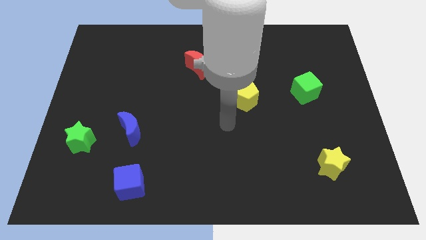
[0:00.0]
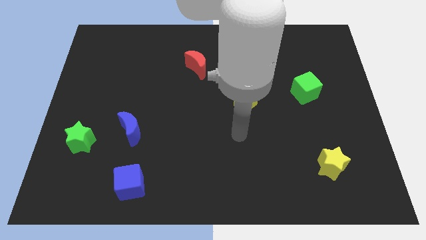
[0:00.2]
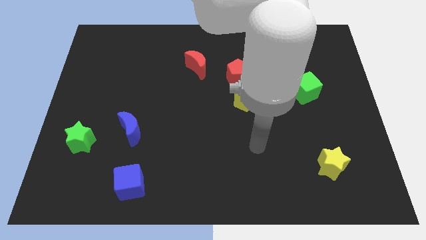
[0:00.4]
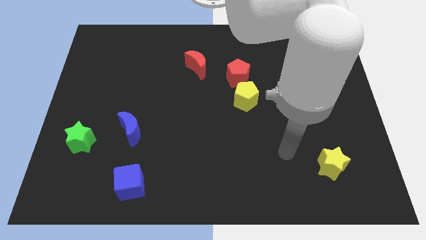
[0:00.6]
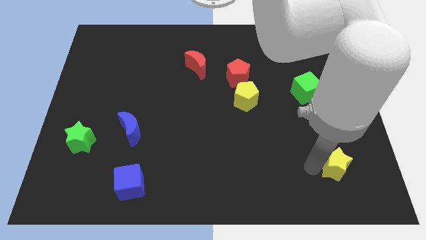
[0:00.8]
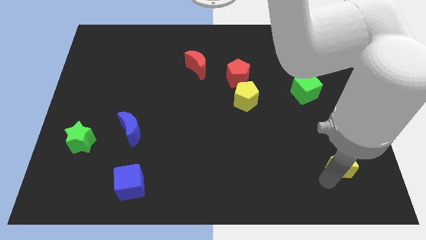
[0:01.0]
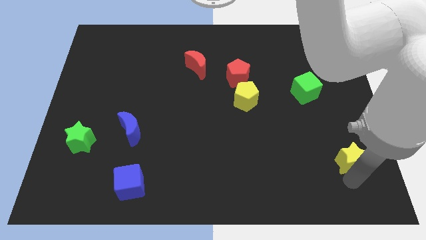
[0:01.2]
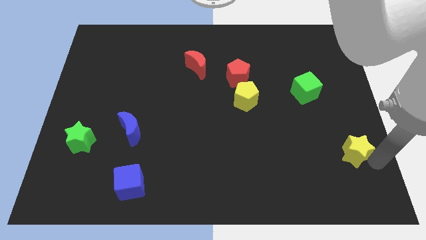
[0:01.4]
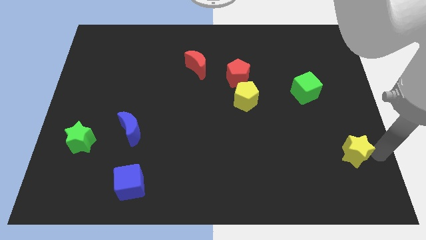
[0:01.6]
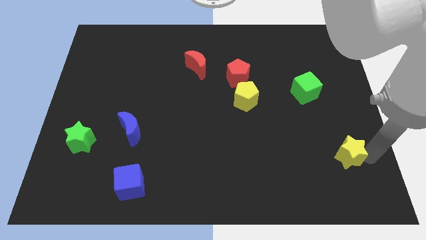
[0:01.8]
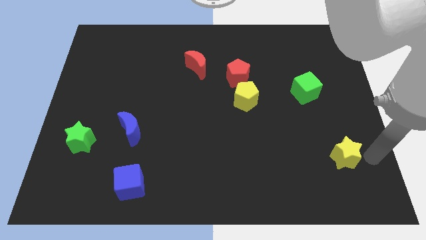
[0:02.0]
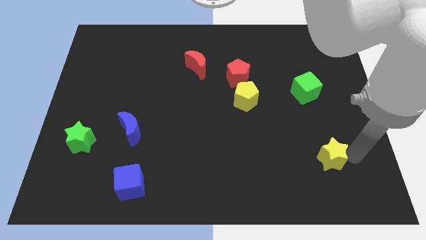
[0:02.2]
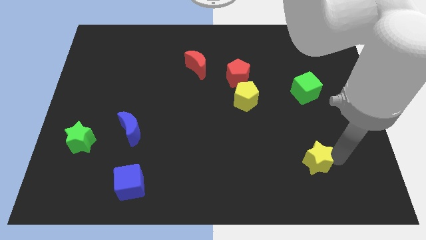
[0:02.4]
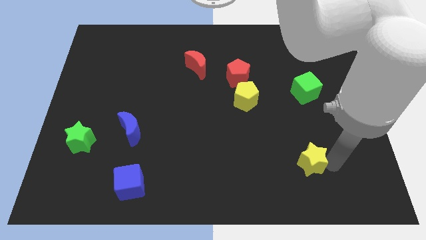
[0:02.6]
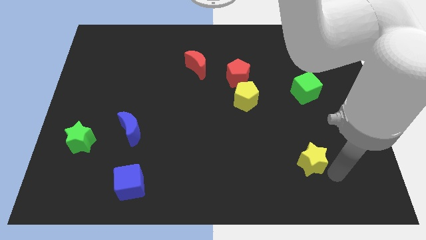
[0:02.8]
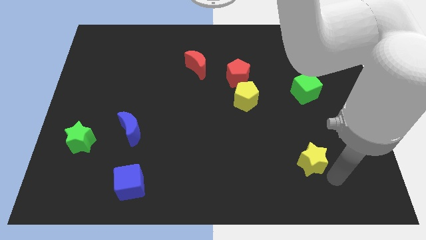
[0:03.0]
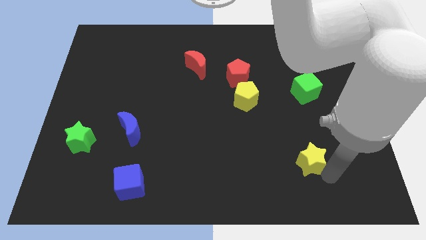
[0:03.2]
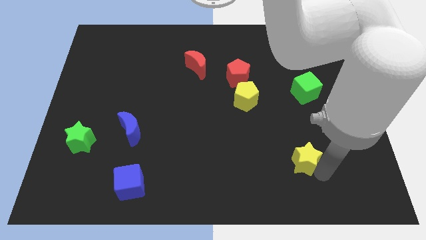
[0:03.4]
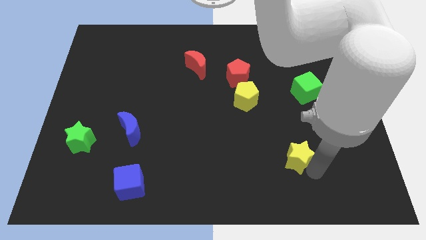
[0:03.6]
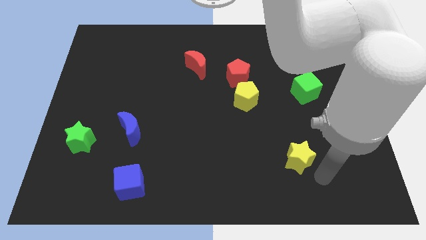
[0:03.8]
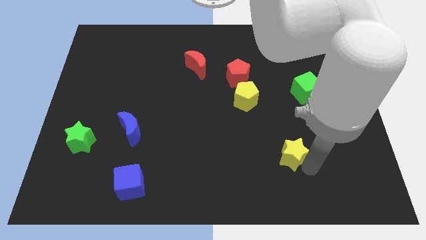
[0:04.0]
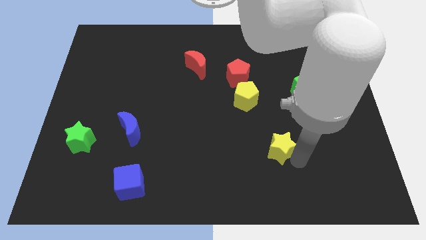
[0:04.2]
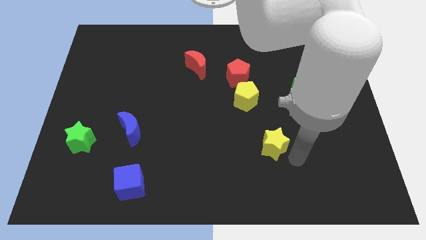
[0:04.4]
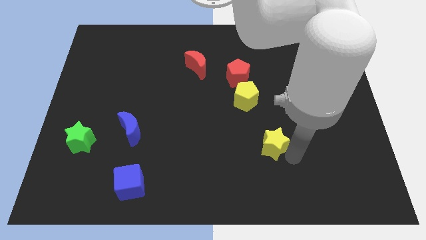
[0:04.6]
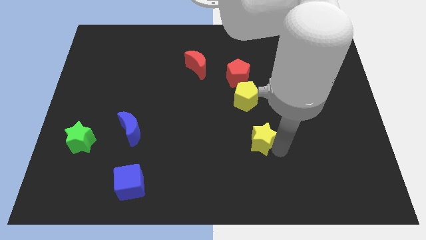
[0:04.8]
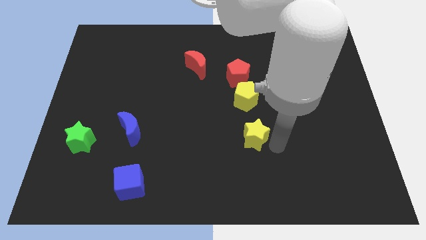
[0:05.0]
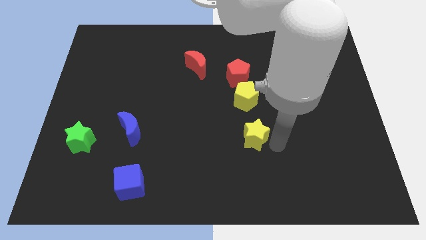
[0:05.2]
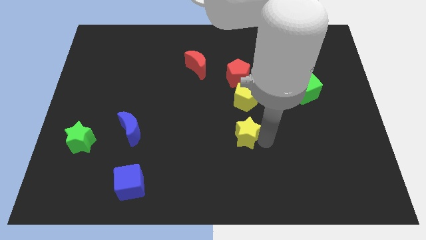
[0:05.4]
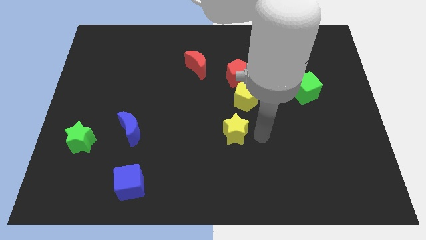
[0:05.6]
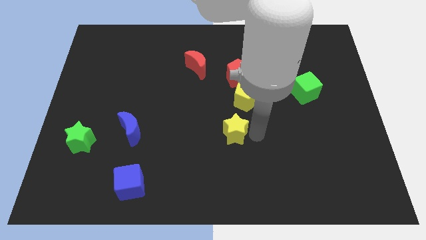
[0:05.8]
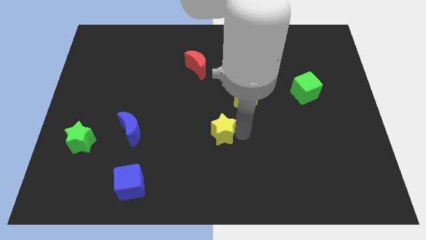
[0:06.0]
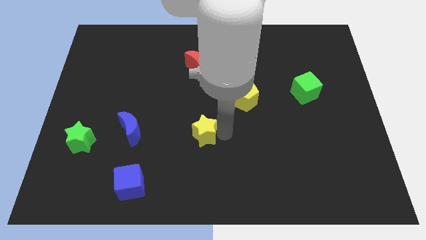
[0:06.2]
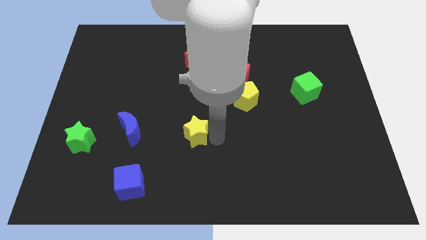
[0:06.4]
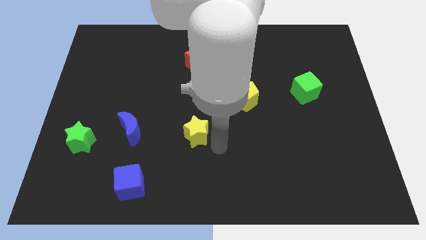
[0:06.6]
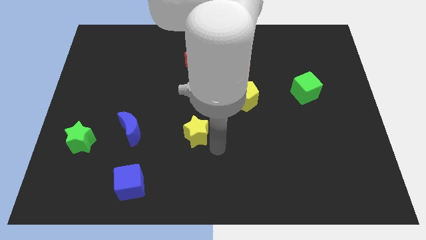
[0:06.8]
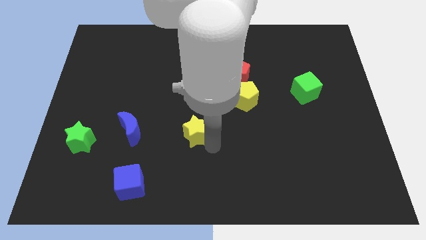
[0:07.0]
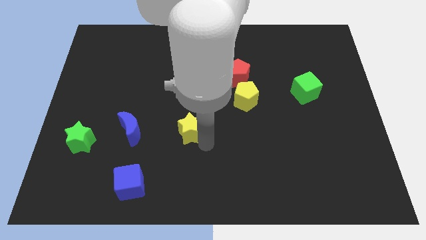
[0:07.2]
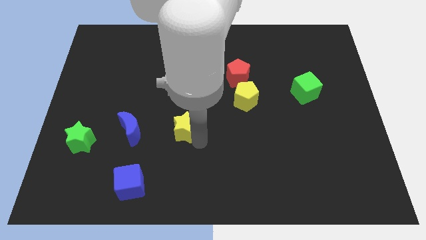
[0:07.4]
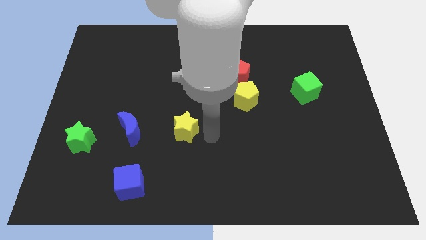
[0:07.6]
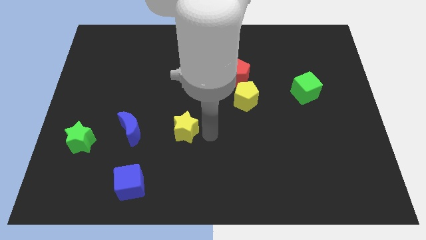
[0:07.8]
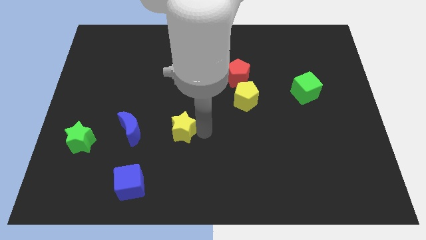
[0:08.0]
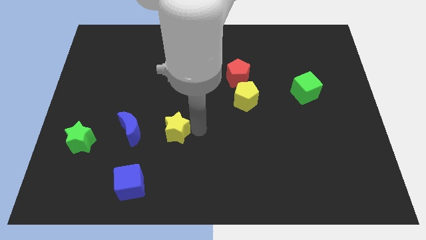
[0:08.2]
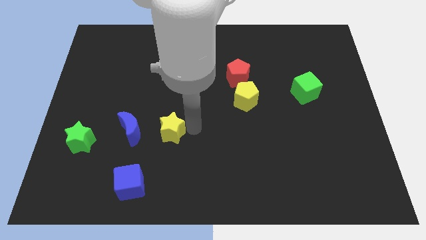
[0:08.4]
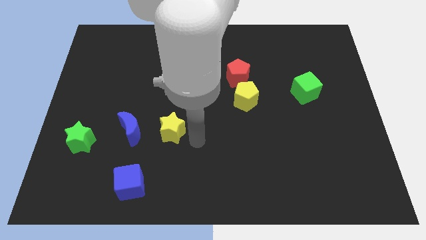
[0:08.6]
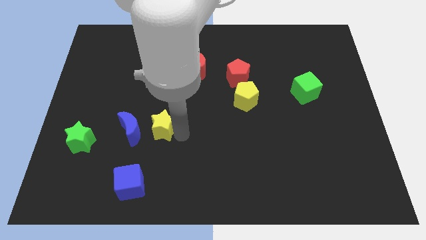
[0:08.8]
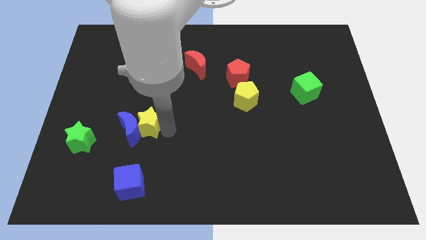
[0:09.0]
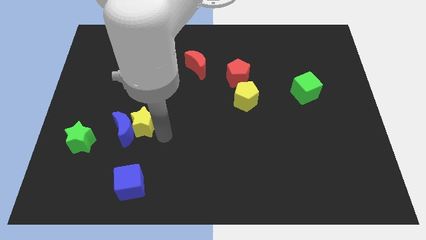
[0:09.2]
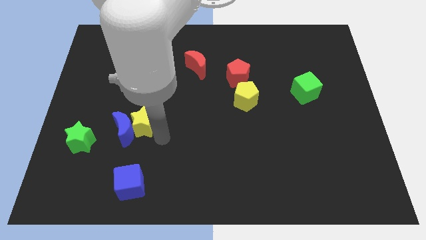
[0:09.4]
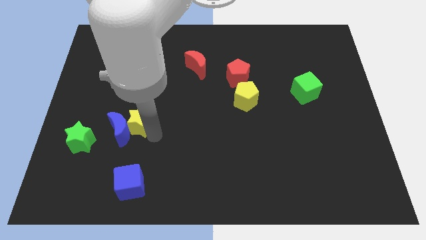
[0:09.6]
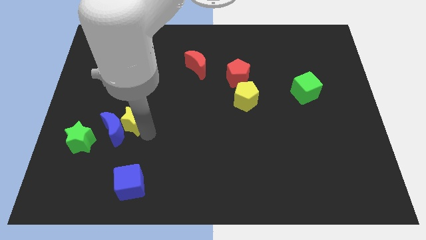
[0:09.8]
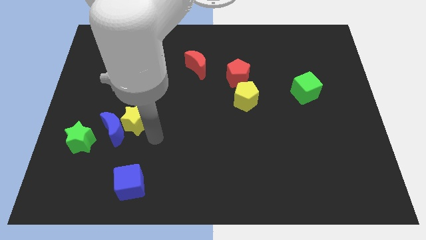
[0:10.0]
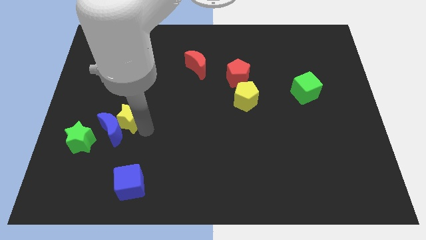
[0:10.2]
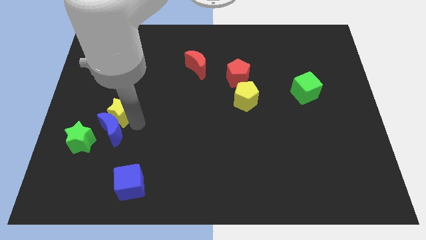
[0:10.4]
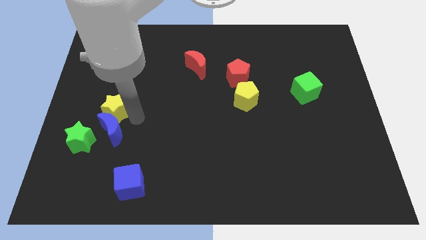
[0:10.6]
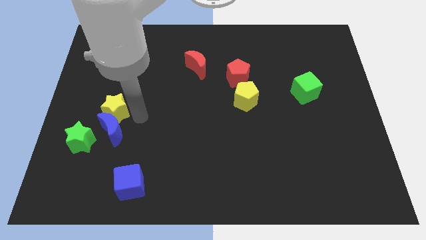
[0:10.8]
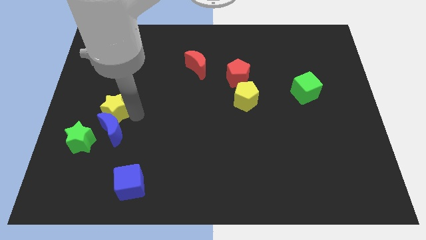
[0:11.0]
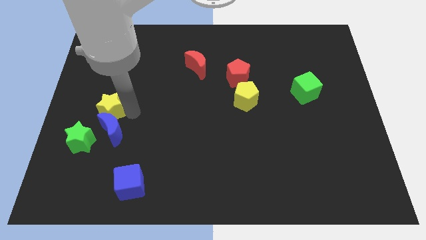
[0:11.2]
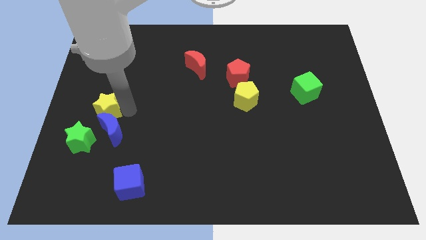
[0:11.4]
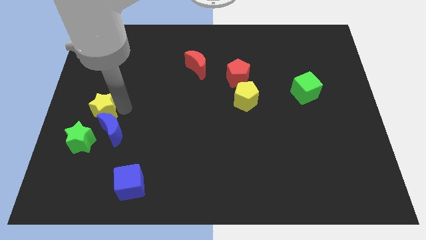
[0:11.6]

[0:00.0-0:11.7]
put the yellow star to the left side
